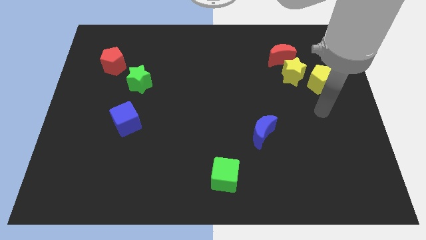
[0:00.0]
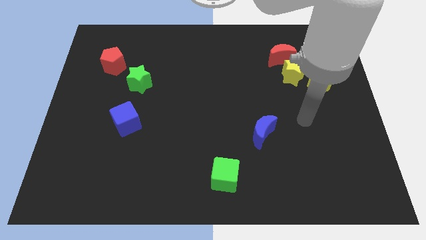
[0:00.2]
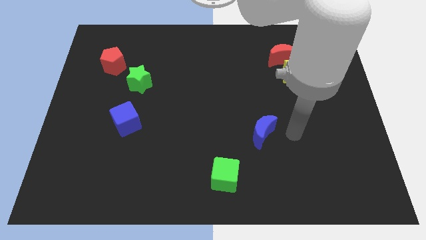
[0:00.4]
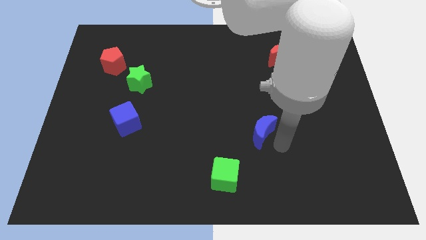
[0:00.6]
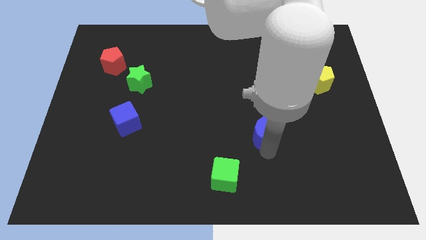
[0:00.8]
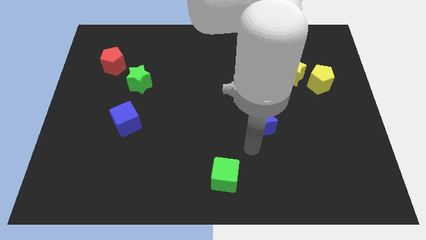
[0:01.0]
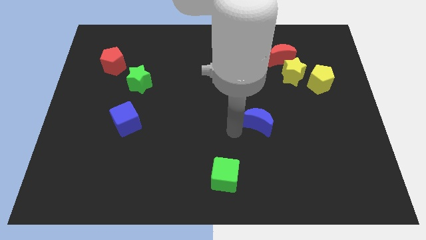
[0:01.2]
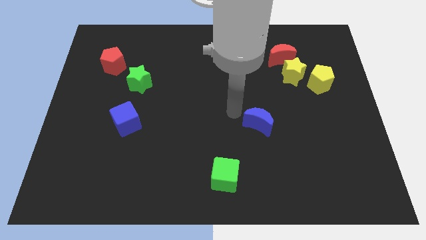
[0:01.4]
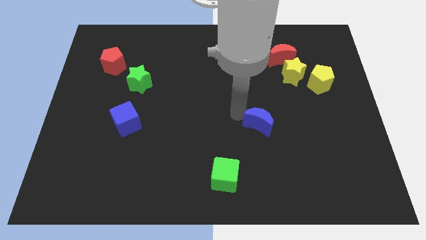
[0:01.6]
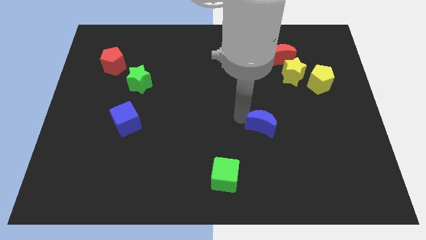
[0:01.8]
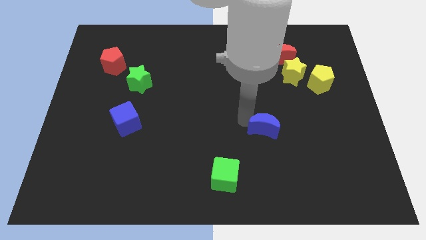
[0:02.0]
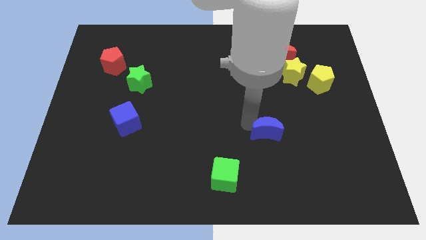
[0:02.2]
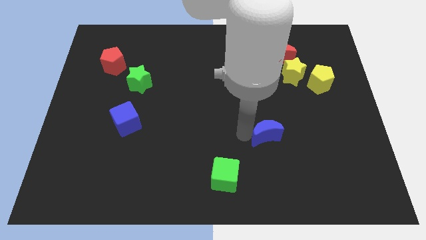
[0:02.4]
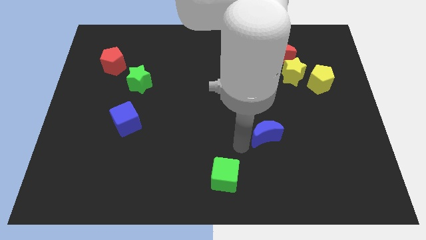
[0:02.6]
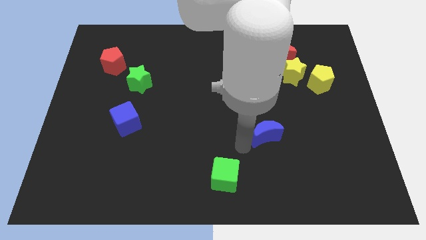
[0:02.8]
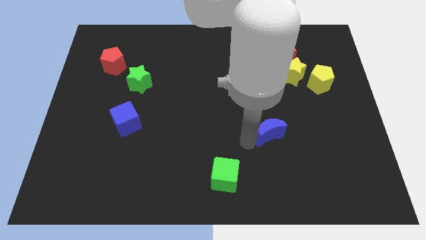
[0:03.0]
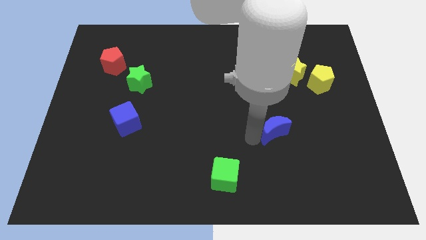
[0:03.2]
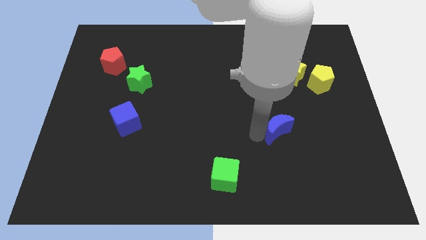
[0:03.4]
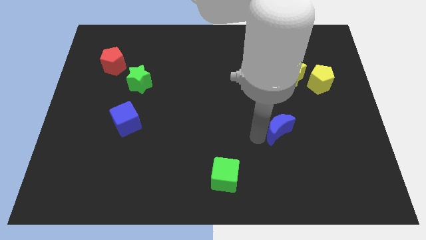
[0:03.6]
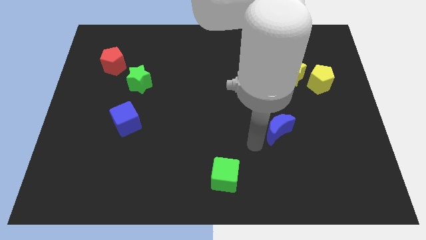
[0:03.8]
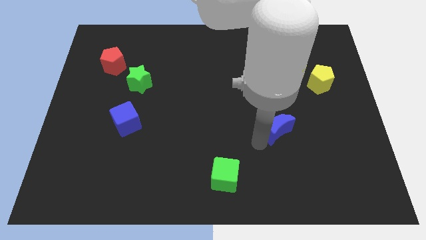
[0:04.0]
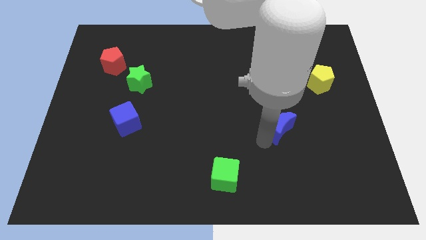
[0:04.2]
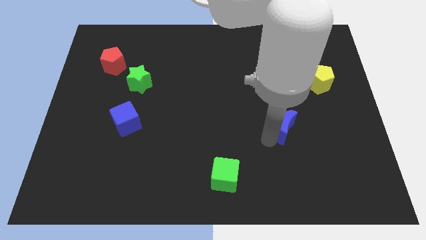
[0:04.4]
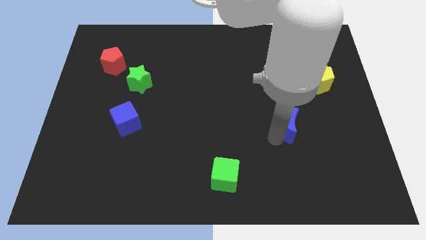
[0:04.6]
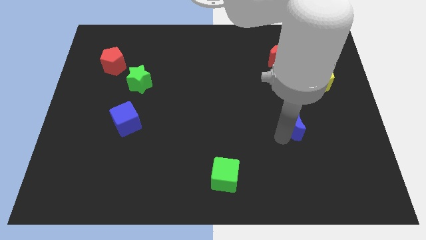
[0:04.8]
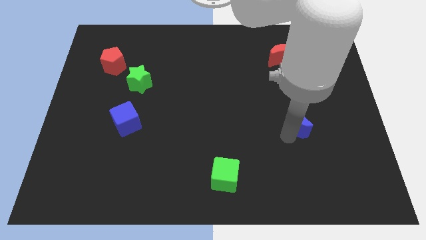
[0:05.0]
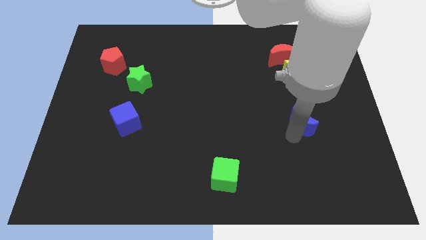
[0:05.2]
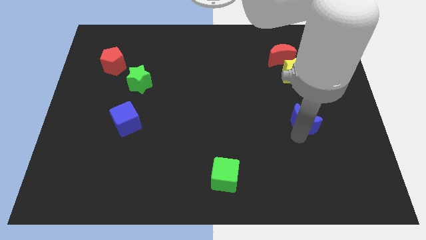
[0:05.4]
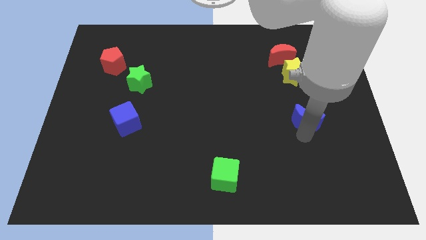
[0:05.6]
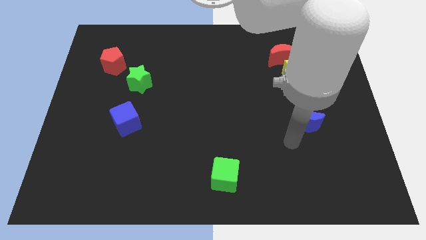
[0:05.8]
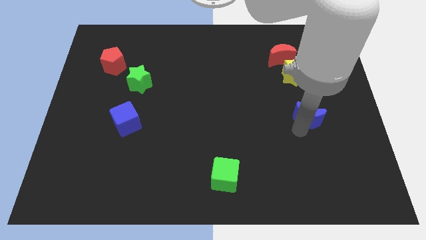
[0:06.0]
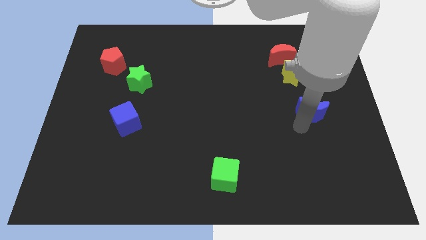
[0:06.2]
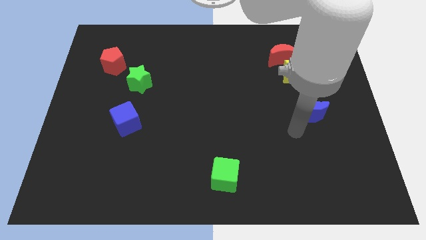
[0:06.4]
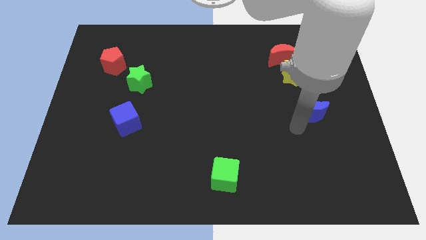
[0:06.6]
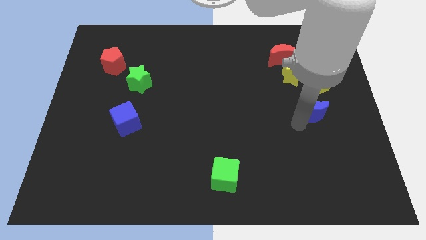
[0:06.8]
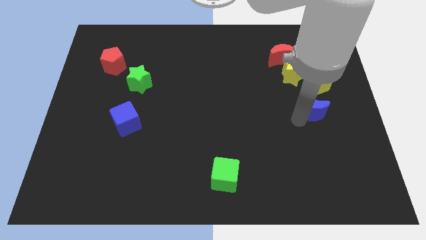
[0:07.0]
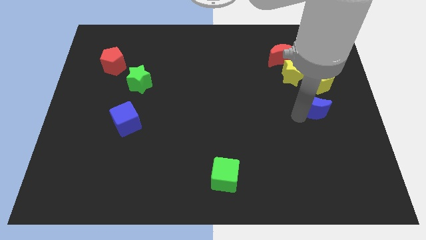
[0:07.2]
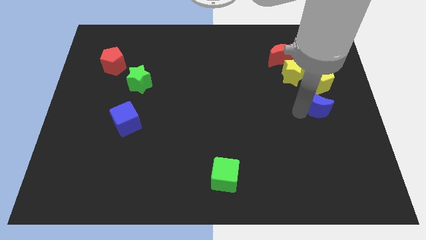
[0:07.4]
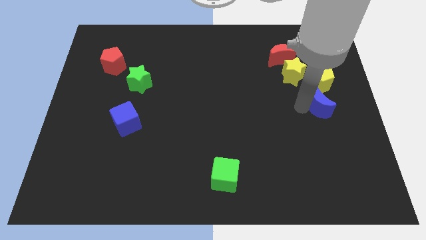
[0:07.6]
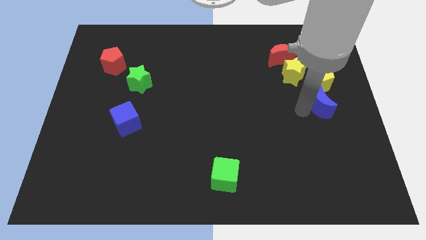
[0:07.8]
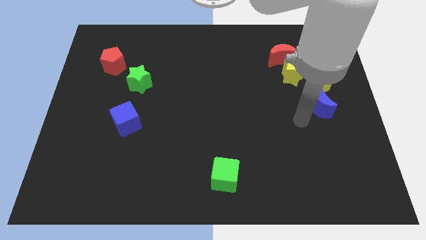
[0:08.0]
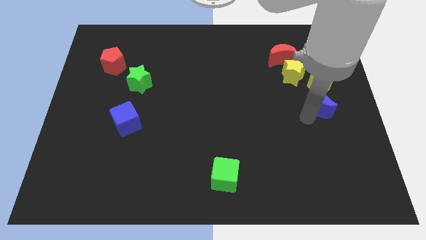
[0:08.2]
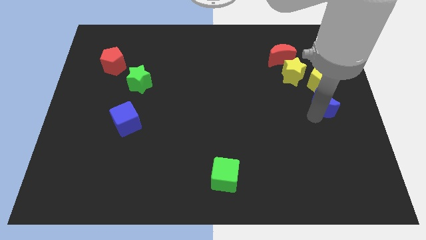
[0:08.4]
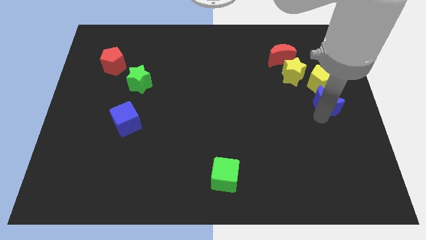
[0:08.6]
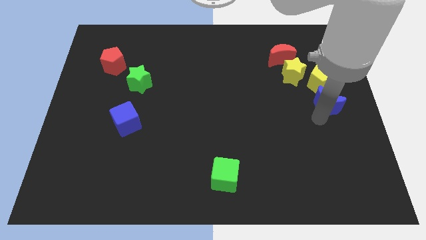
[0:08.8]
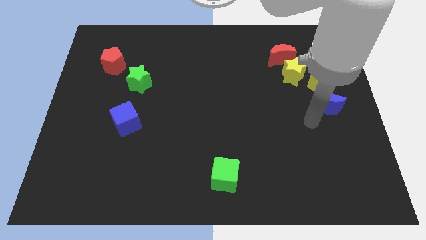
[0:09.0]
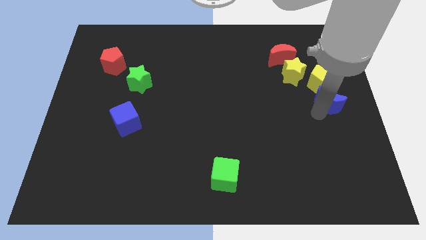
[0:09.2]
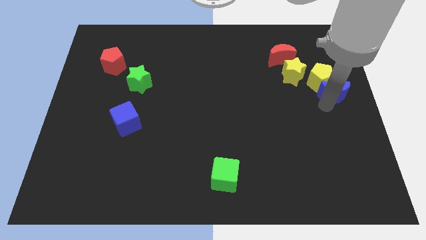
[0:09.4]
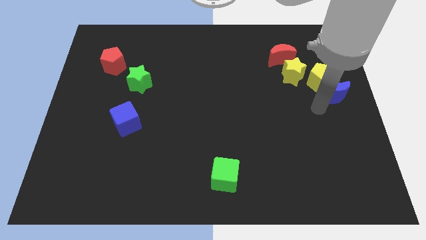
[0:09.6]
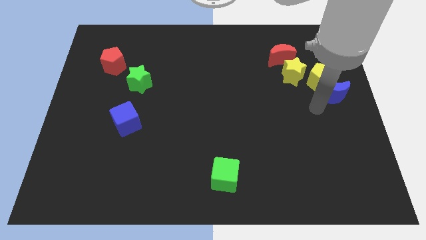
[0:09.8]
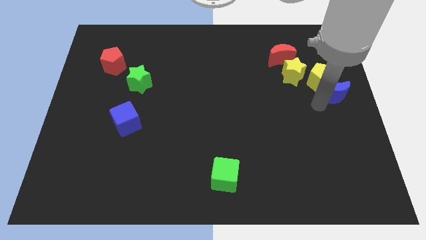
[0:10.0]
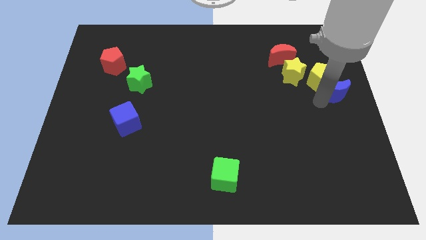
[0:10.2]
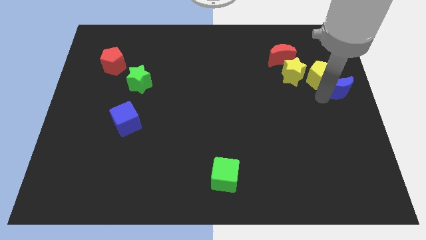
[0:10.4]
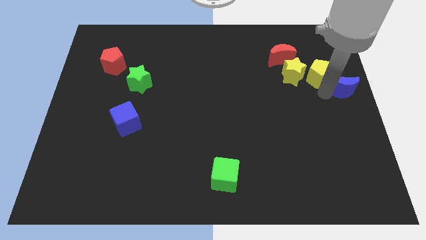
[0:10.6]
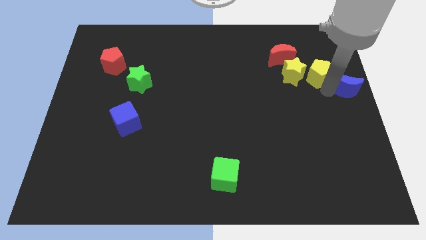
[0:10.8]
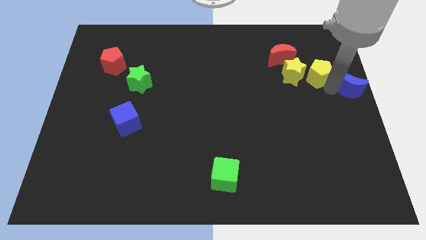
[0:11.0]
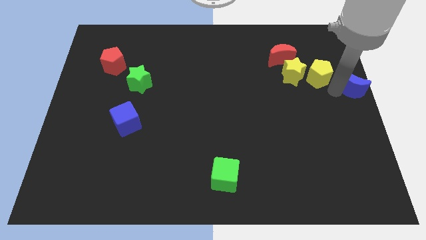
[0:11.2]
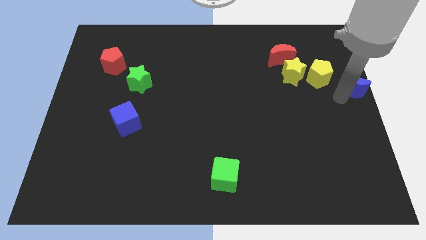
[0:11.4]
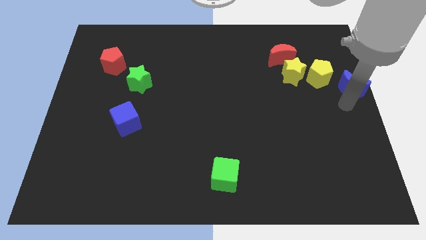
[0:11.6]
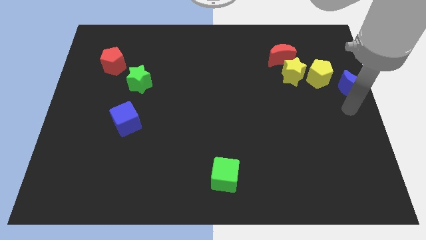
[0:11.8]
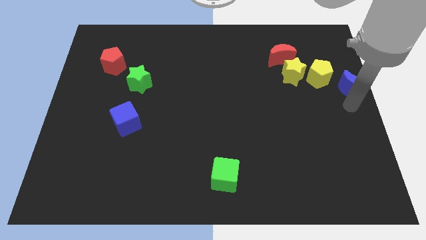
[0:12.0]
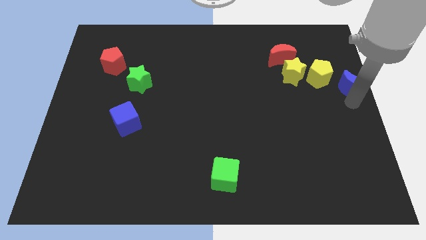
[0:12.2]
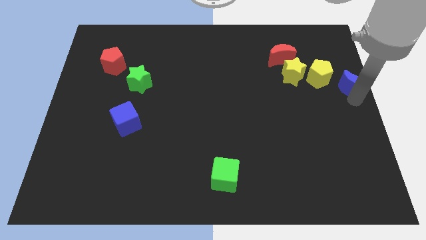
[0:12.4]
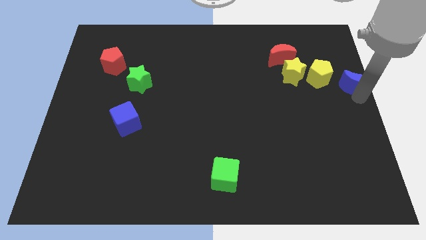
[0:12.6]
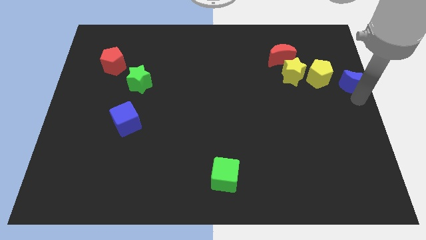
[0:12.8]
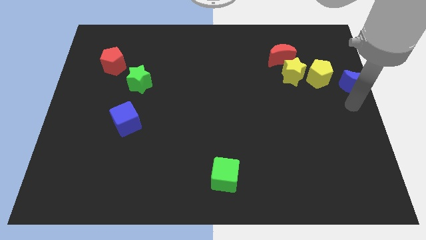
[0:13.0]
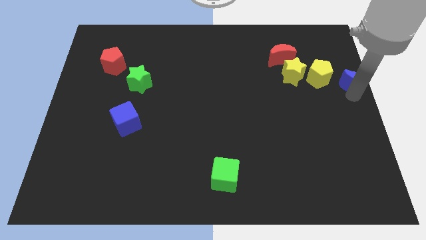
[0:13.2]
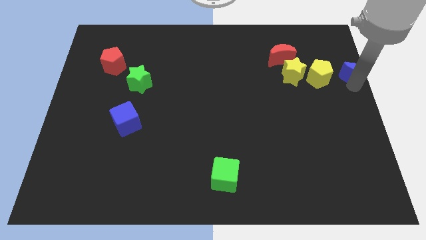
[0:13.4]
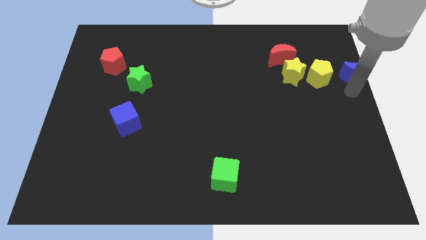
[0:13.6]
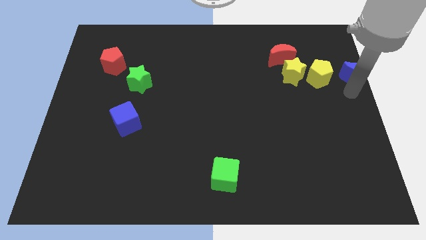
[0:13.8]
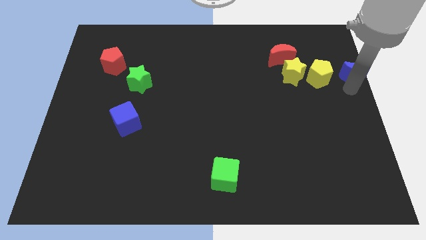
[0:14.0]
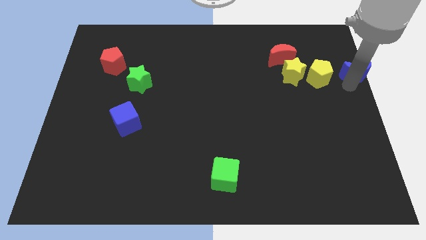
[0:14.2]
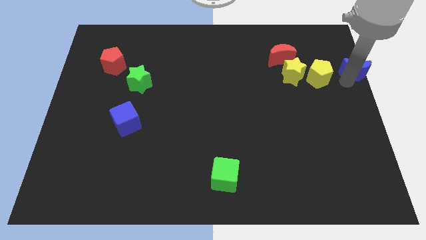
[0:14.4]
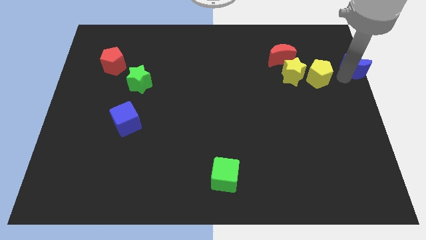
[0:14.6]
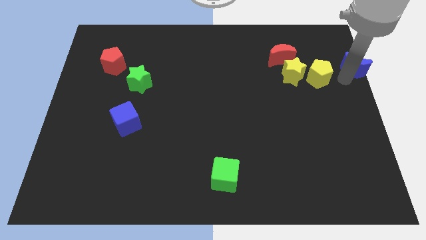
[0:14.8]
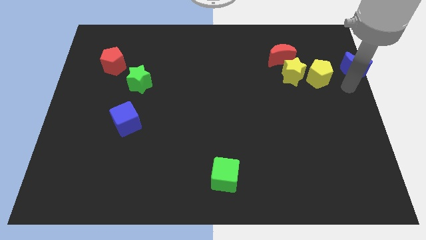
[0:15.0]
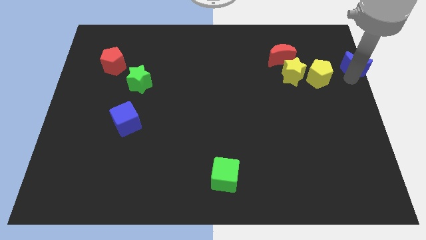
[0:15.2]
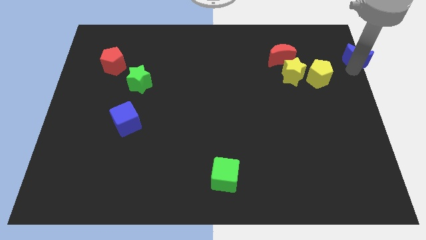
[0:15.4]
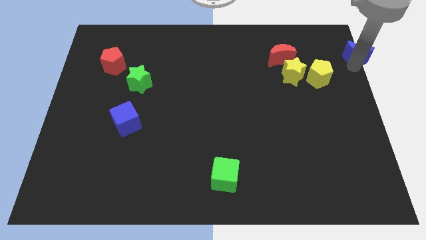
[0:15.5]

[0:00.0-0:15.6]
put the blue moon to the top right corner
